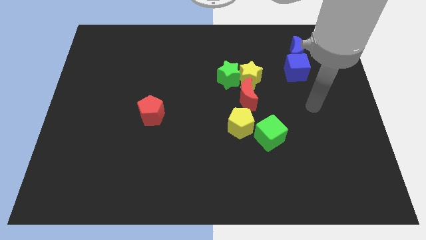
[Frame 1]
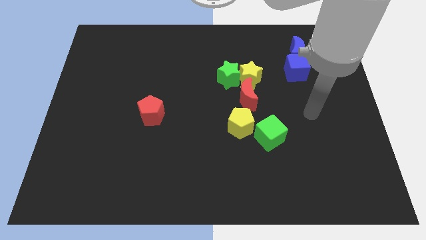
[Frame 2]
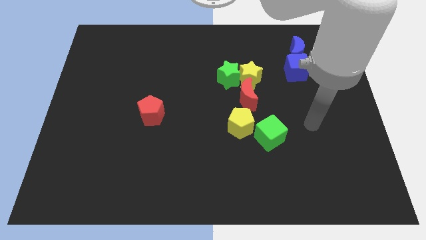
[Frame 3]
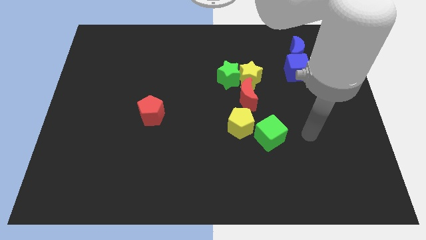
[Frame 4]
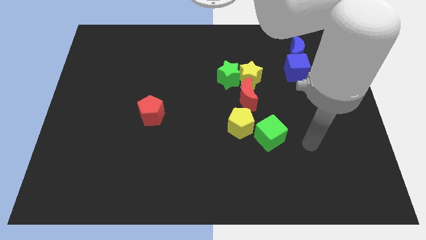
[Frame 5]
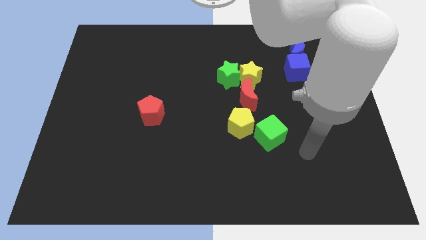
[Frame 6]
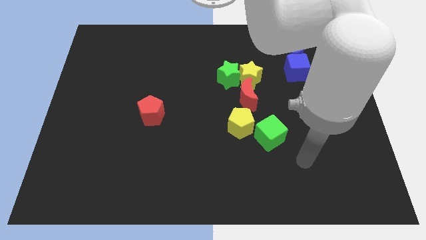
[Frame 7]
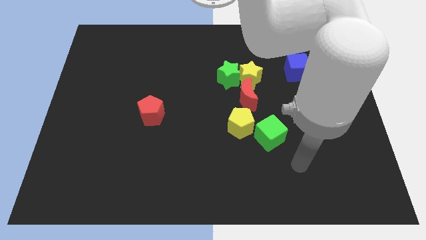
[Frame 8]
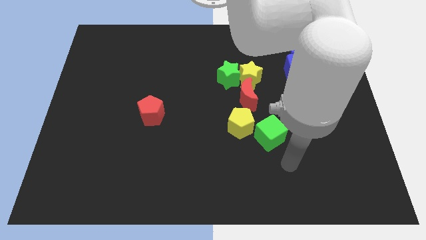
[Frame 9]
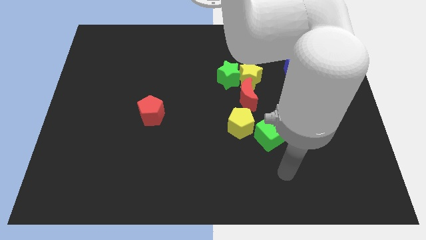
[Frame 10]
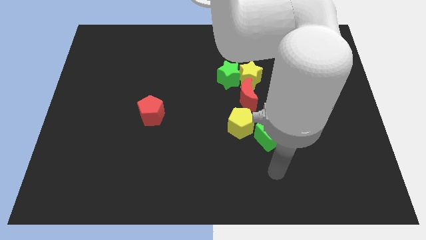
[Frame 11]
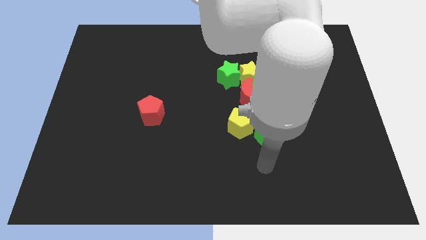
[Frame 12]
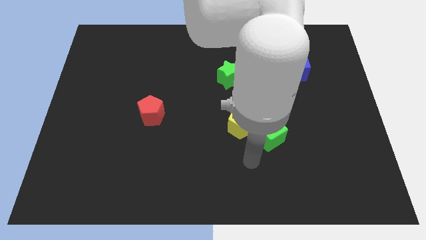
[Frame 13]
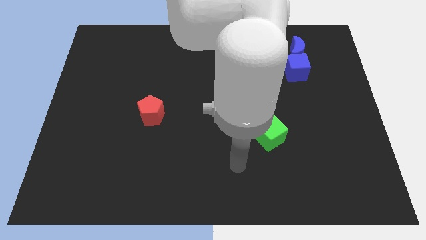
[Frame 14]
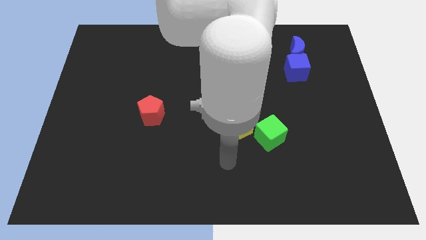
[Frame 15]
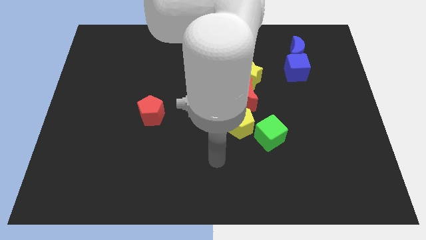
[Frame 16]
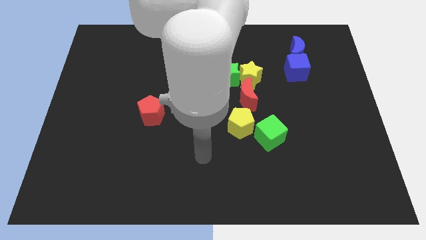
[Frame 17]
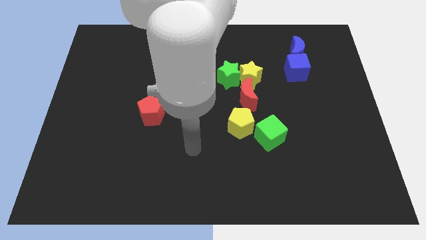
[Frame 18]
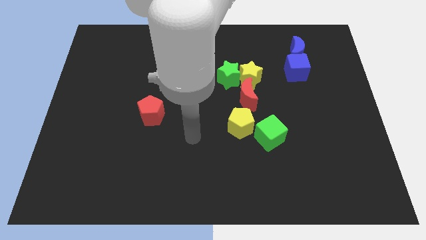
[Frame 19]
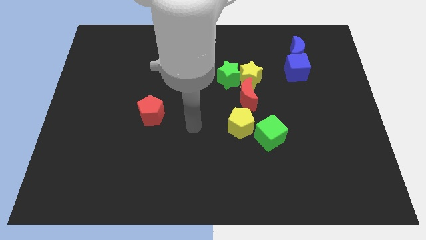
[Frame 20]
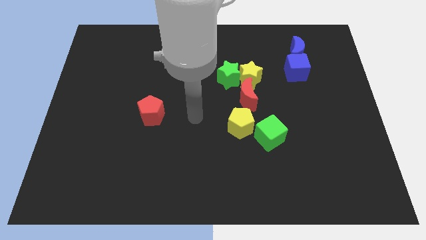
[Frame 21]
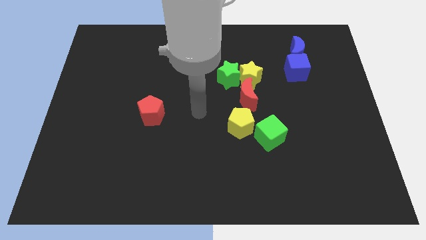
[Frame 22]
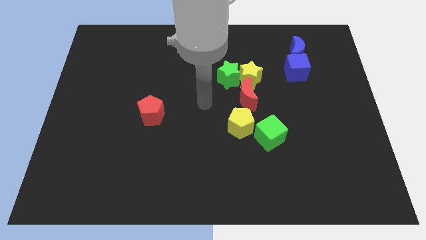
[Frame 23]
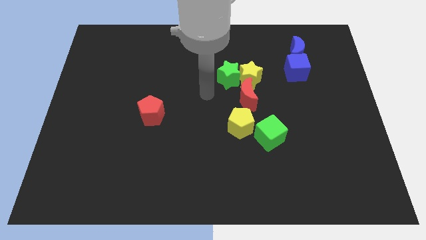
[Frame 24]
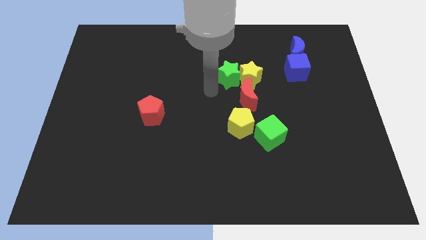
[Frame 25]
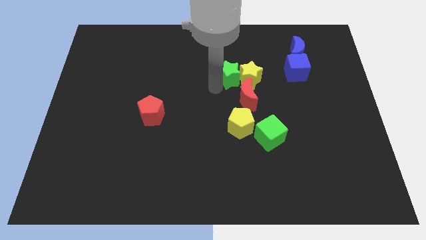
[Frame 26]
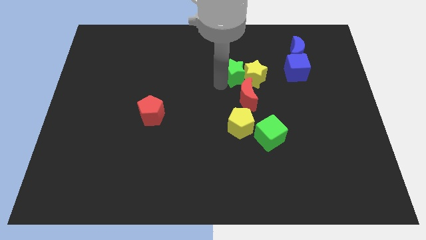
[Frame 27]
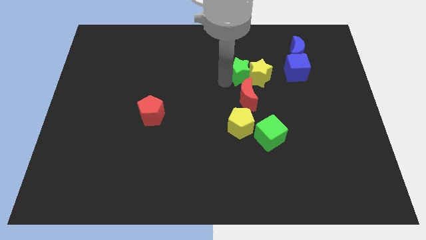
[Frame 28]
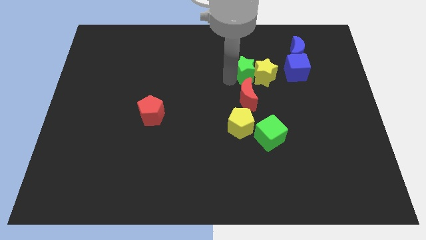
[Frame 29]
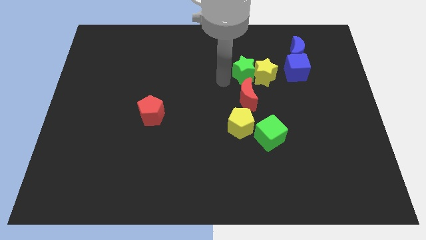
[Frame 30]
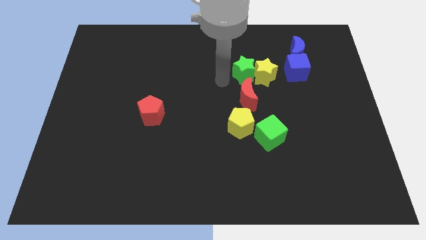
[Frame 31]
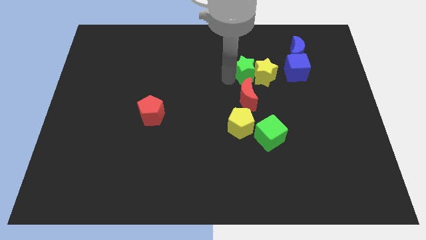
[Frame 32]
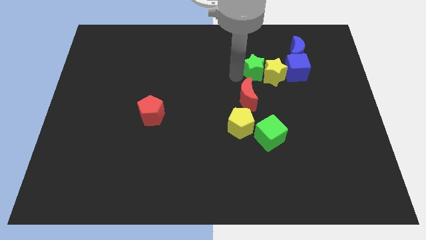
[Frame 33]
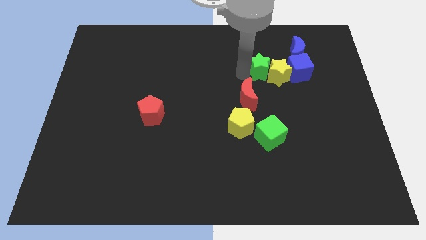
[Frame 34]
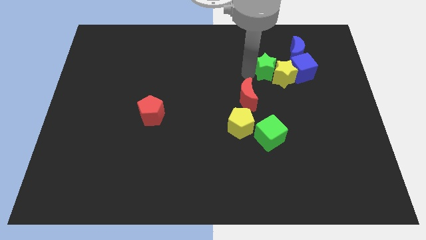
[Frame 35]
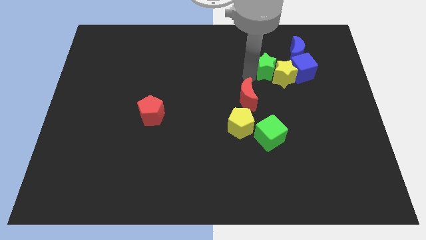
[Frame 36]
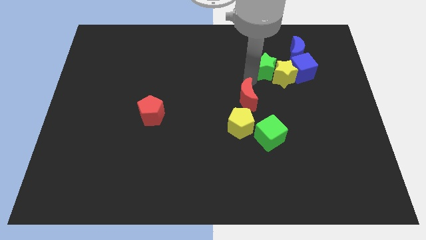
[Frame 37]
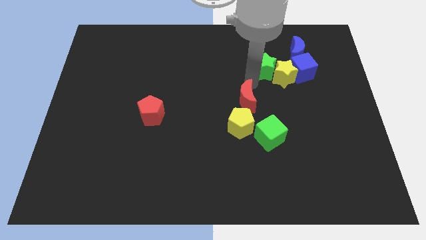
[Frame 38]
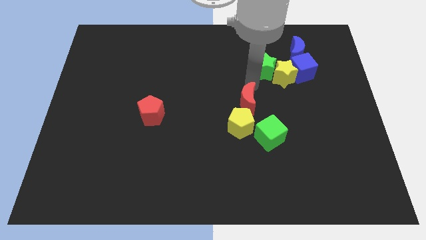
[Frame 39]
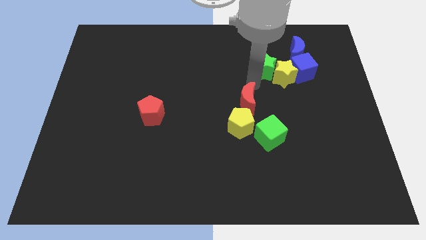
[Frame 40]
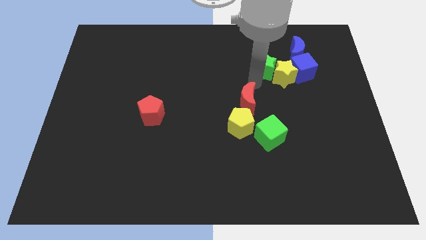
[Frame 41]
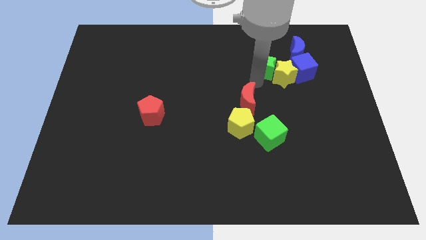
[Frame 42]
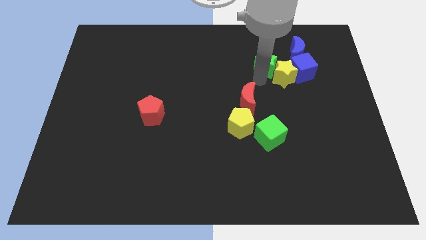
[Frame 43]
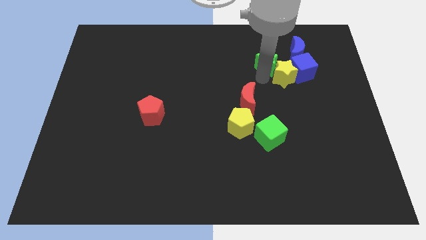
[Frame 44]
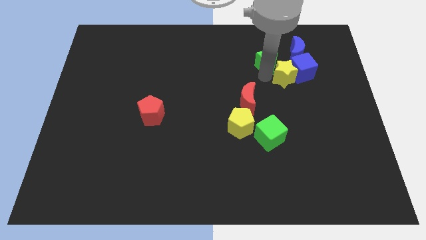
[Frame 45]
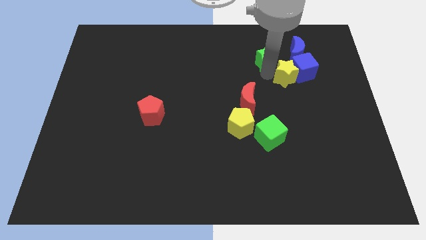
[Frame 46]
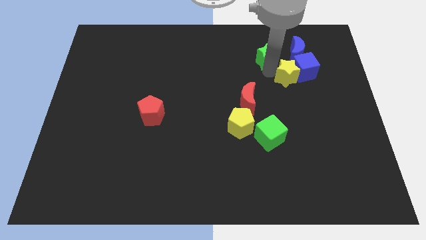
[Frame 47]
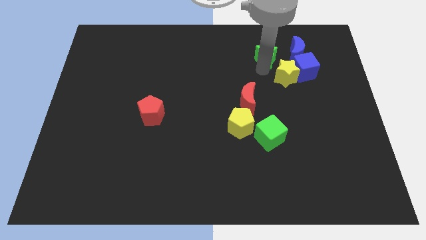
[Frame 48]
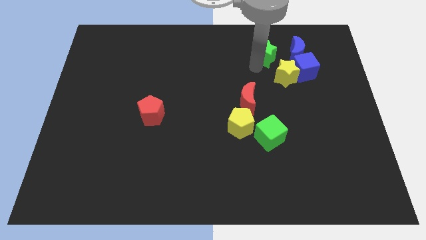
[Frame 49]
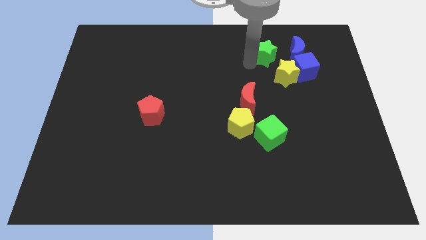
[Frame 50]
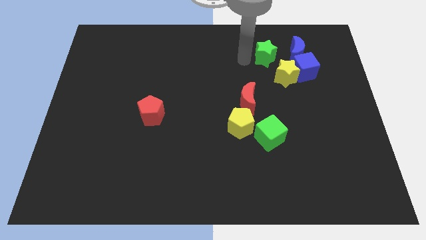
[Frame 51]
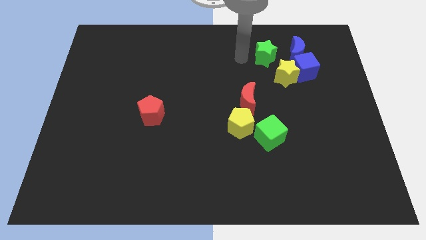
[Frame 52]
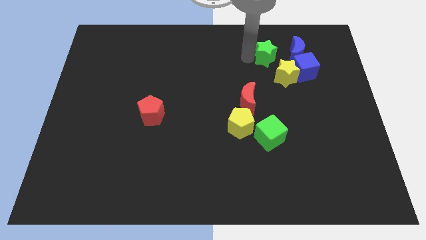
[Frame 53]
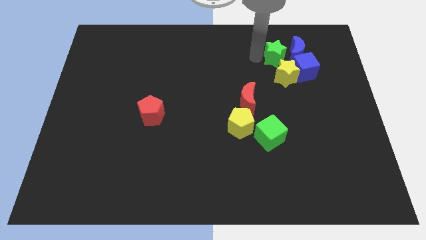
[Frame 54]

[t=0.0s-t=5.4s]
move the green star towards the blue moon
